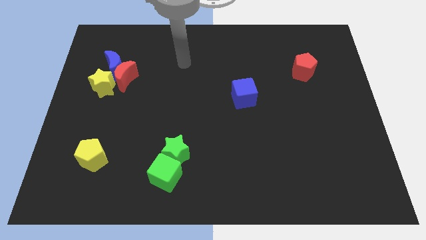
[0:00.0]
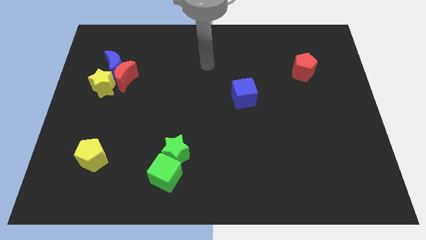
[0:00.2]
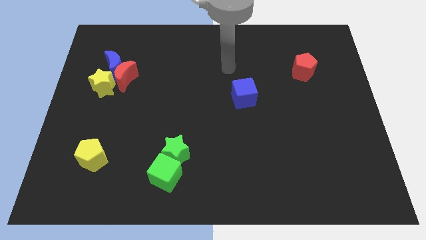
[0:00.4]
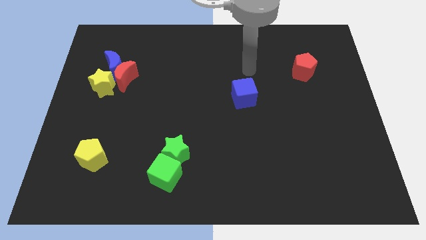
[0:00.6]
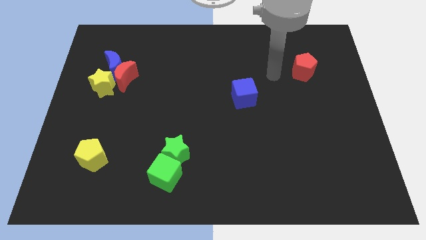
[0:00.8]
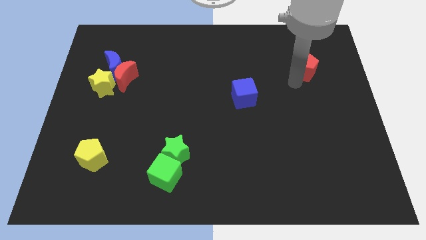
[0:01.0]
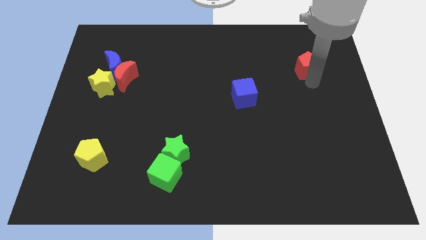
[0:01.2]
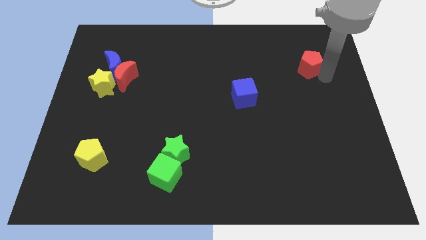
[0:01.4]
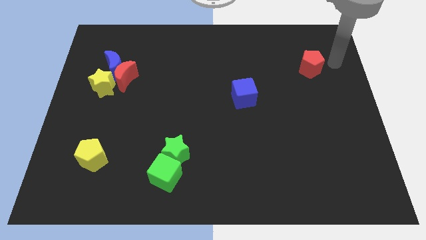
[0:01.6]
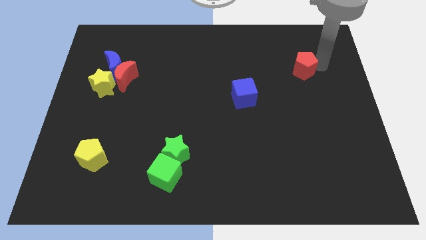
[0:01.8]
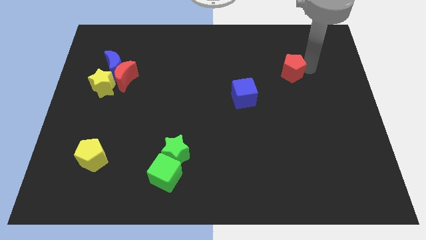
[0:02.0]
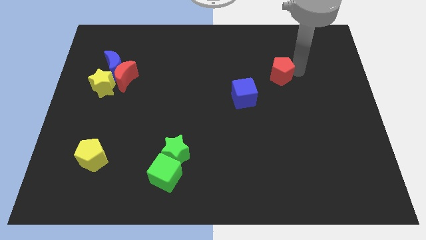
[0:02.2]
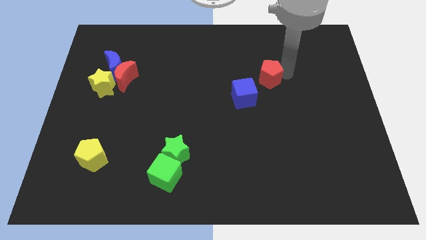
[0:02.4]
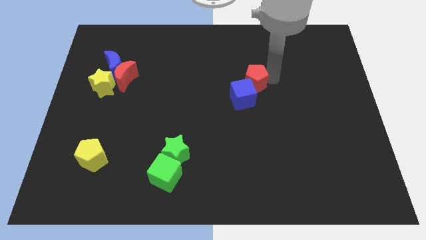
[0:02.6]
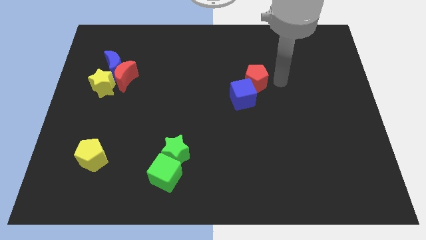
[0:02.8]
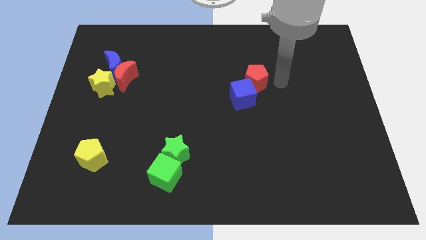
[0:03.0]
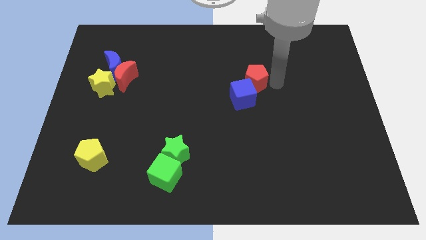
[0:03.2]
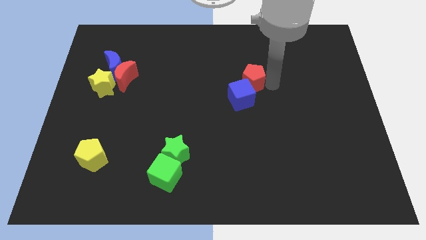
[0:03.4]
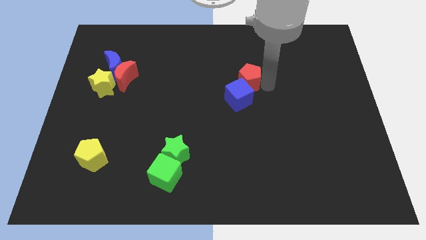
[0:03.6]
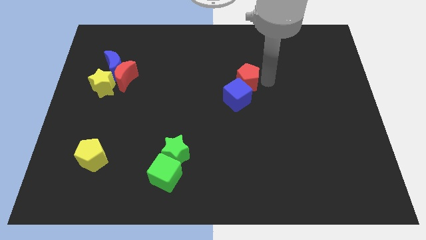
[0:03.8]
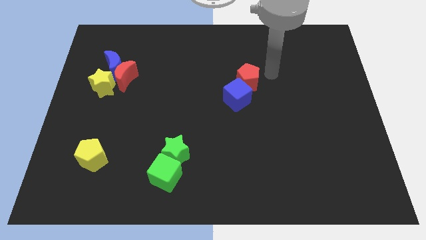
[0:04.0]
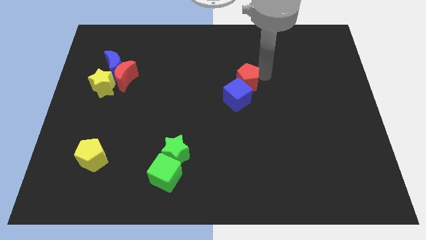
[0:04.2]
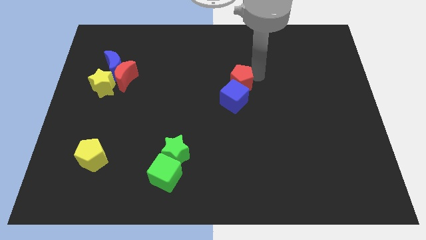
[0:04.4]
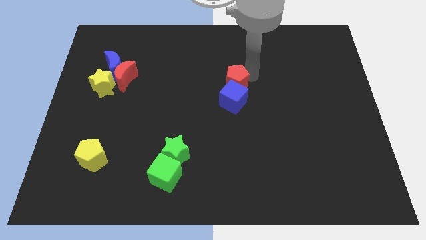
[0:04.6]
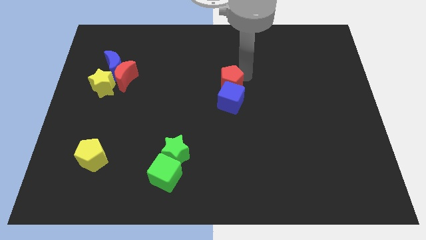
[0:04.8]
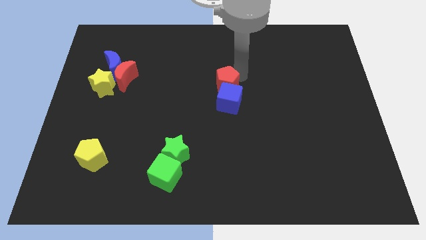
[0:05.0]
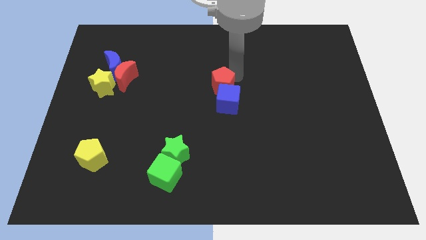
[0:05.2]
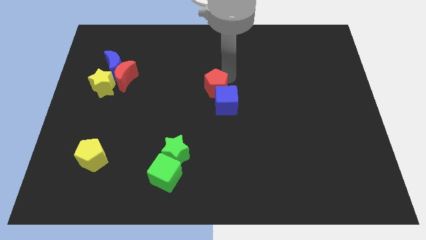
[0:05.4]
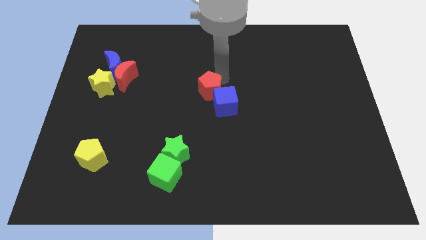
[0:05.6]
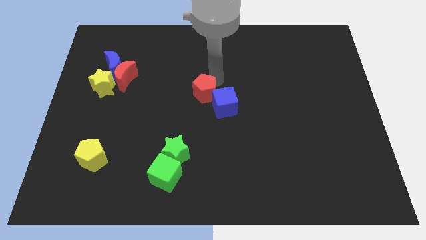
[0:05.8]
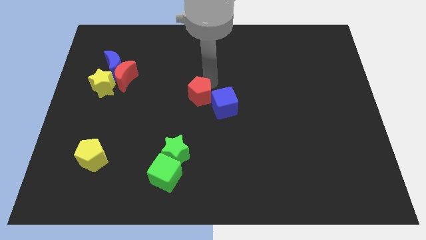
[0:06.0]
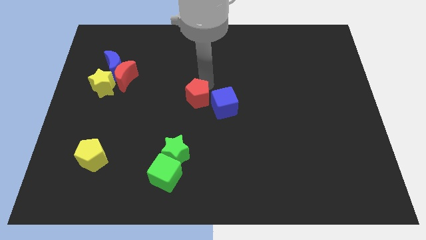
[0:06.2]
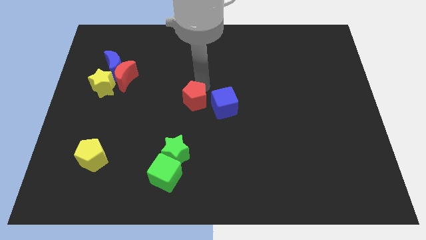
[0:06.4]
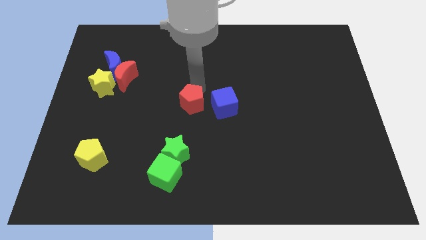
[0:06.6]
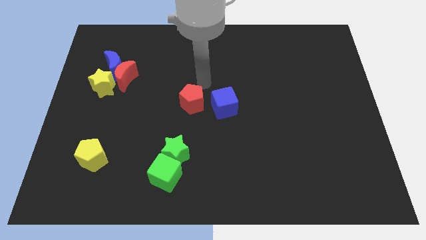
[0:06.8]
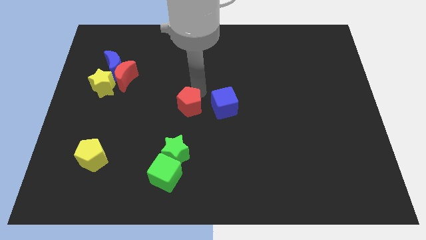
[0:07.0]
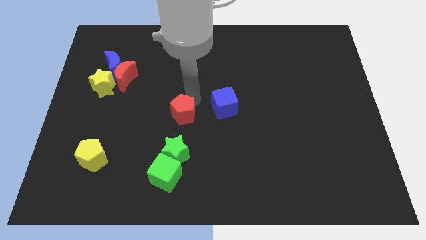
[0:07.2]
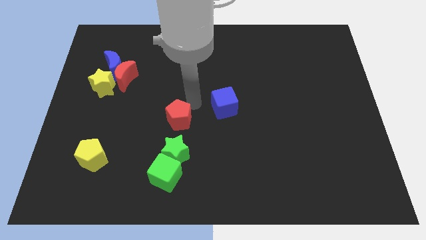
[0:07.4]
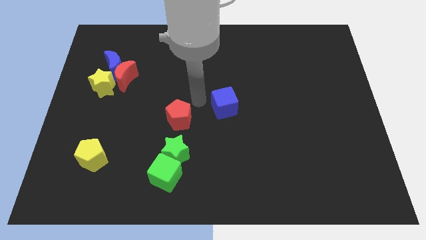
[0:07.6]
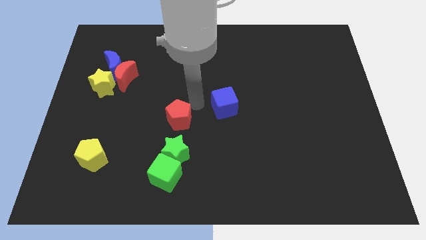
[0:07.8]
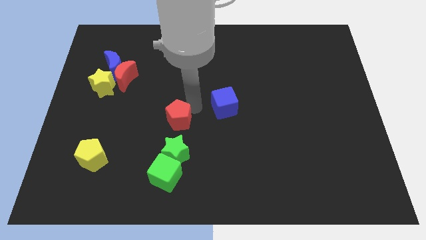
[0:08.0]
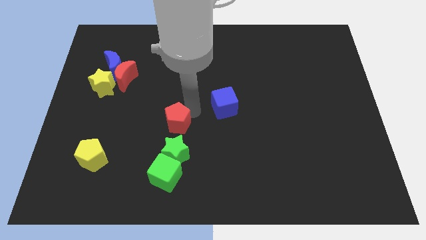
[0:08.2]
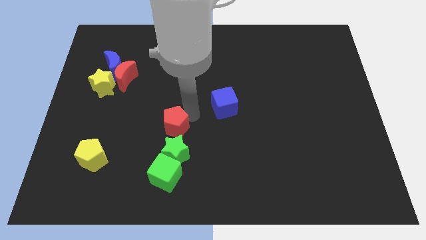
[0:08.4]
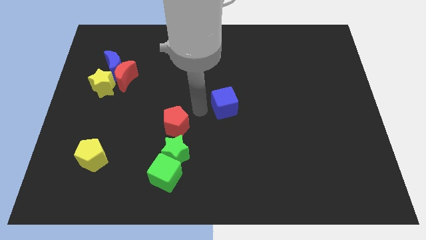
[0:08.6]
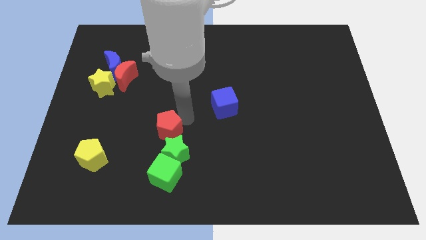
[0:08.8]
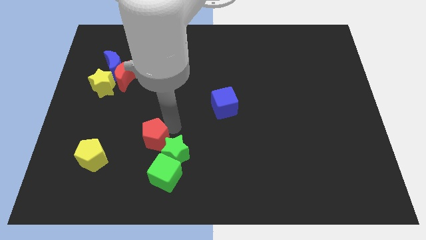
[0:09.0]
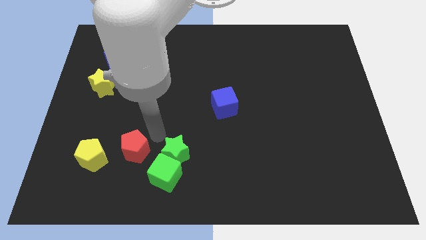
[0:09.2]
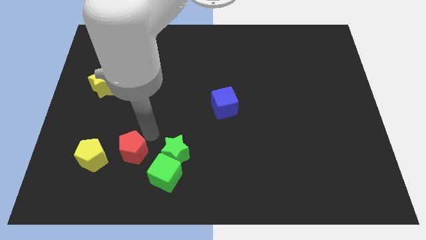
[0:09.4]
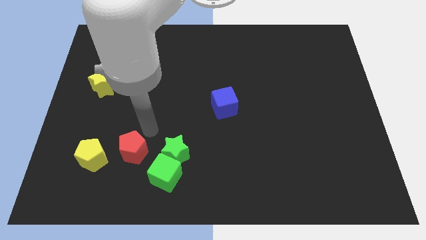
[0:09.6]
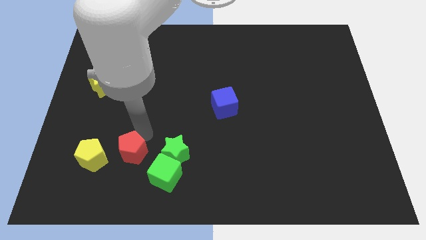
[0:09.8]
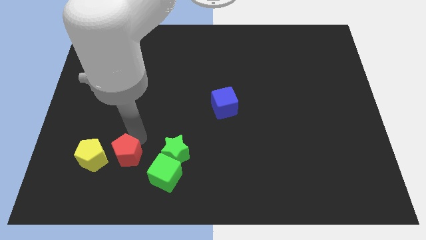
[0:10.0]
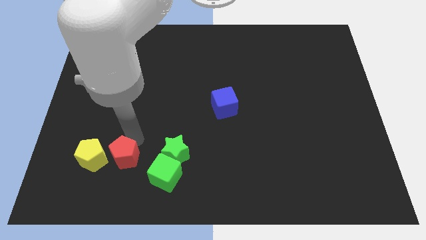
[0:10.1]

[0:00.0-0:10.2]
push the red pentagon left of the green cube

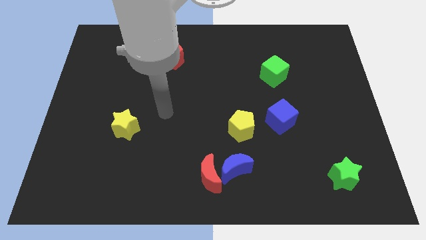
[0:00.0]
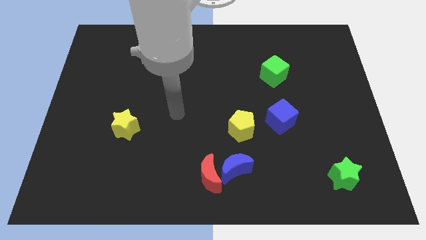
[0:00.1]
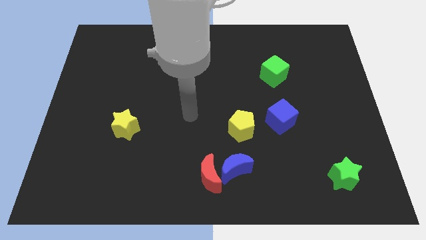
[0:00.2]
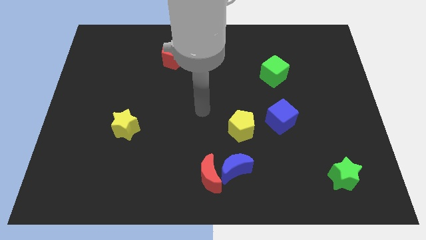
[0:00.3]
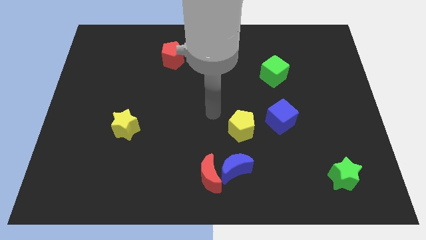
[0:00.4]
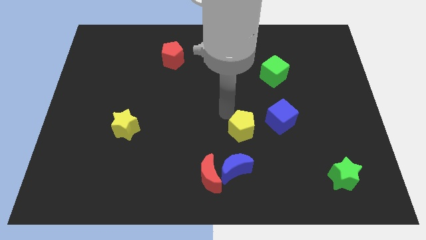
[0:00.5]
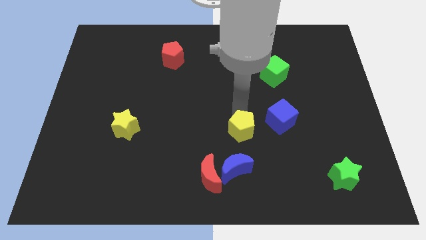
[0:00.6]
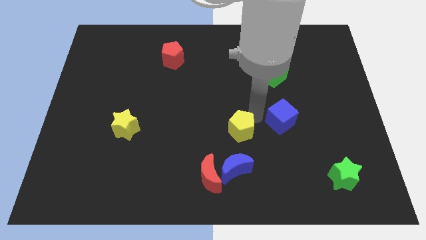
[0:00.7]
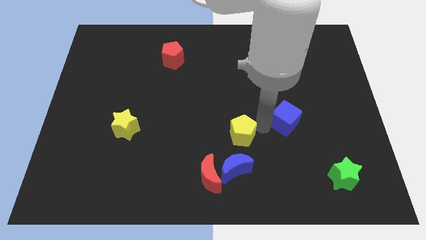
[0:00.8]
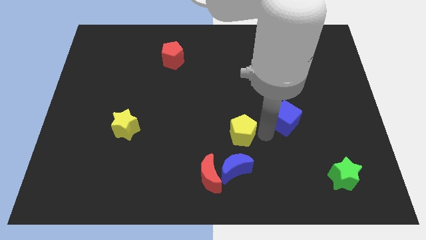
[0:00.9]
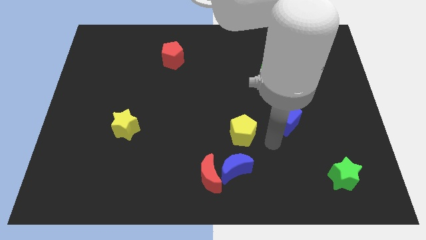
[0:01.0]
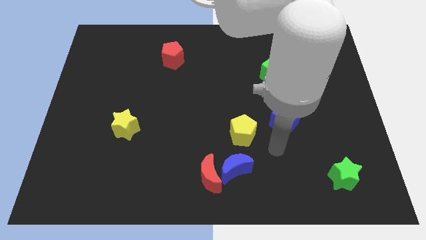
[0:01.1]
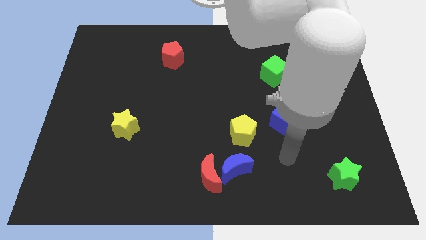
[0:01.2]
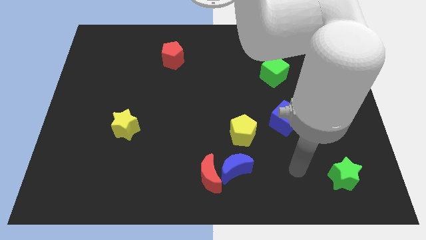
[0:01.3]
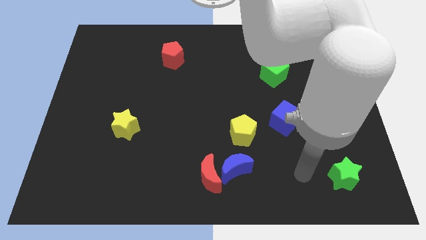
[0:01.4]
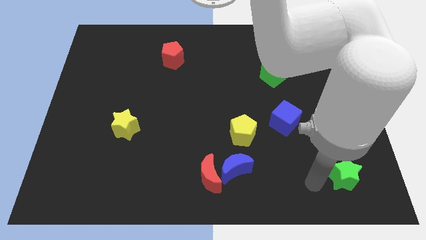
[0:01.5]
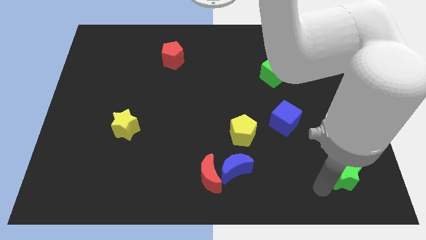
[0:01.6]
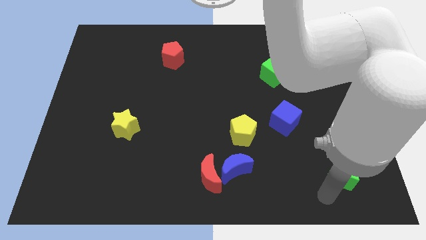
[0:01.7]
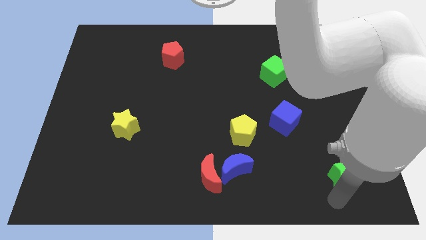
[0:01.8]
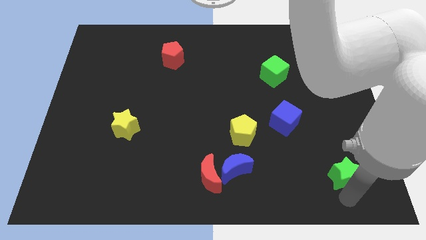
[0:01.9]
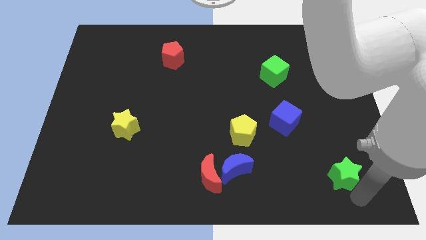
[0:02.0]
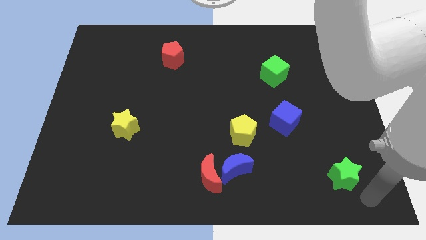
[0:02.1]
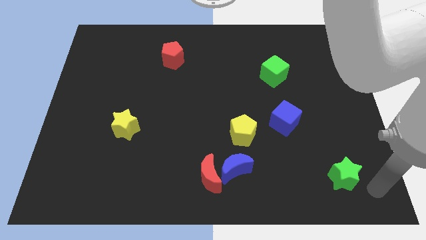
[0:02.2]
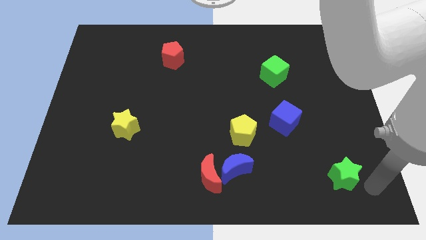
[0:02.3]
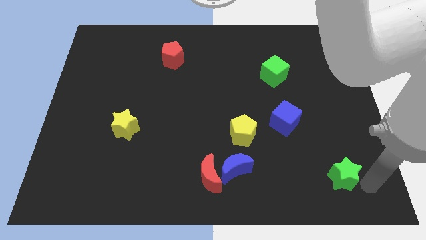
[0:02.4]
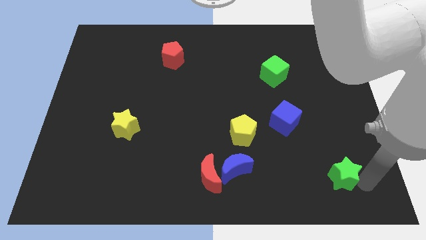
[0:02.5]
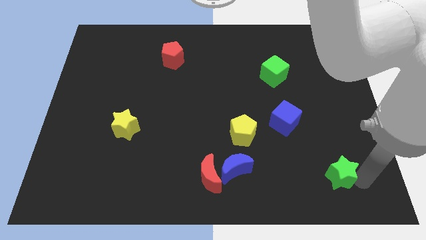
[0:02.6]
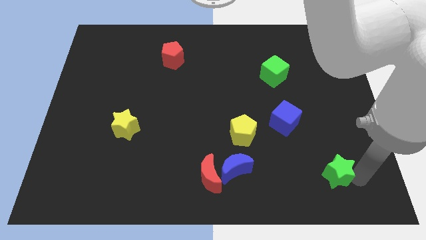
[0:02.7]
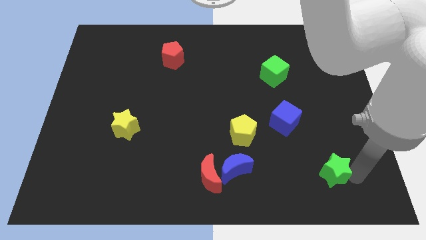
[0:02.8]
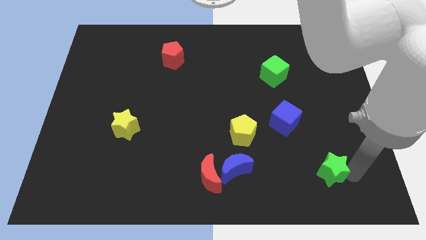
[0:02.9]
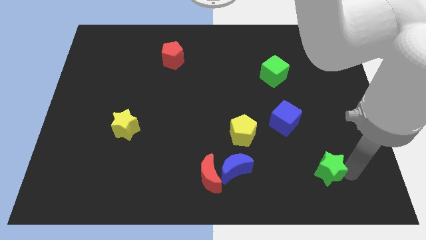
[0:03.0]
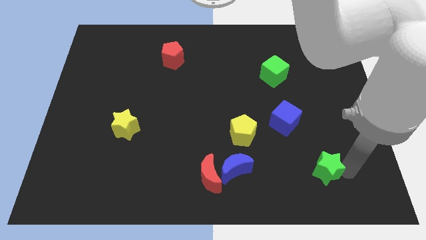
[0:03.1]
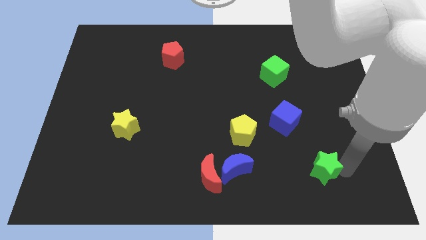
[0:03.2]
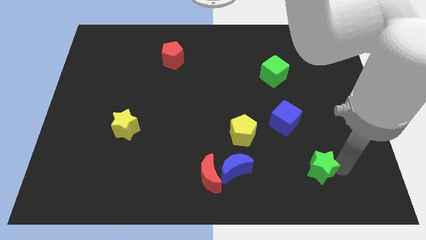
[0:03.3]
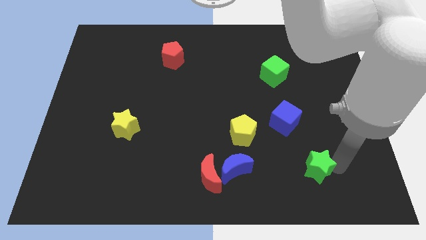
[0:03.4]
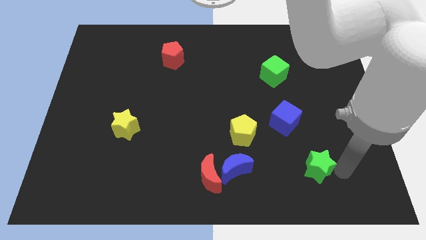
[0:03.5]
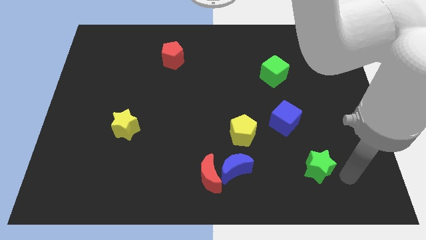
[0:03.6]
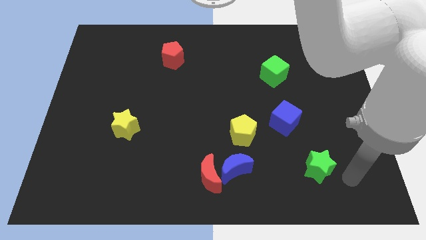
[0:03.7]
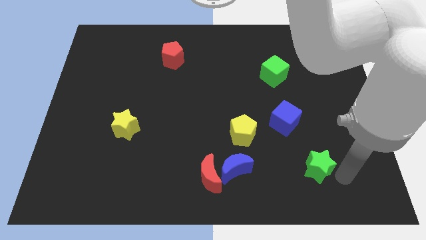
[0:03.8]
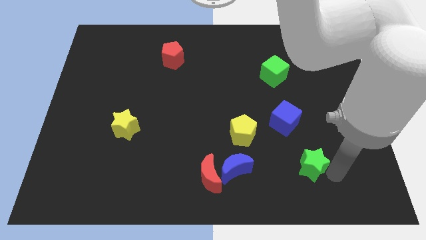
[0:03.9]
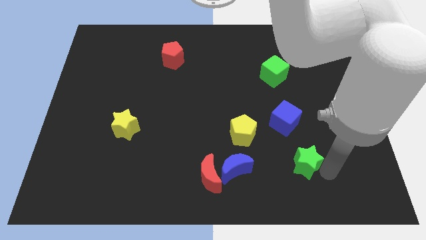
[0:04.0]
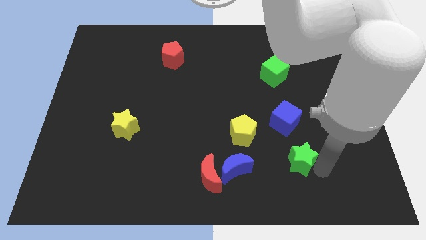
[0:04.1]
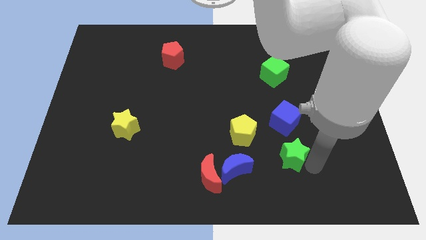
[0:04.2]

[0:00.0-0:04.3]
move the green star diagonally down and to the right of the yellow pentagon
